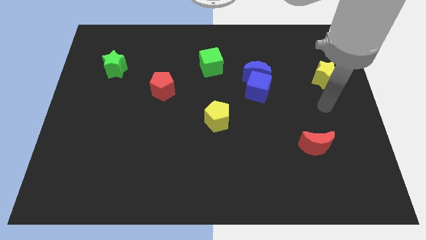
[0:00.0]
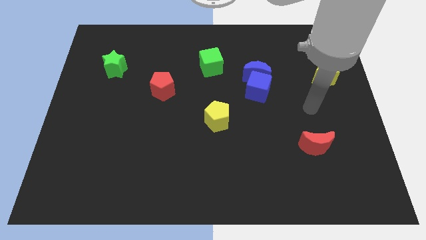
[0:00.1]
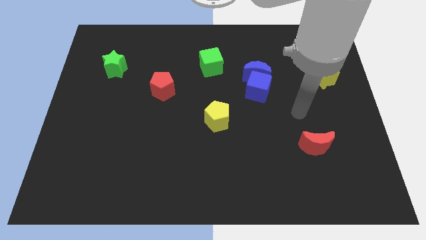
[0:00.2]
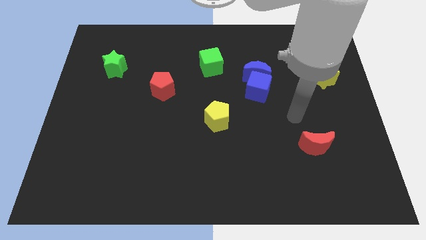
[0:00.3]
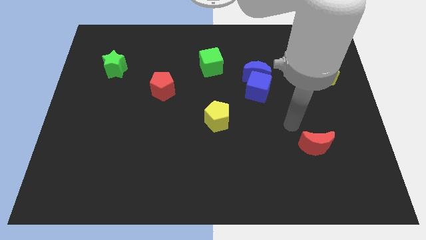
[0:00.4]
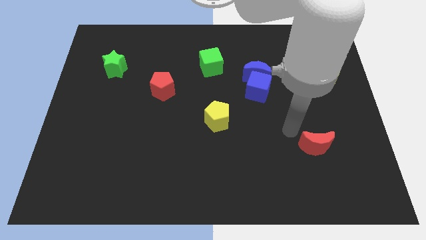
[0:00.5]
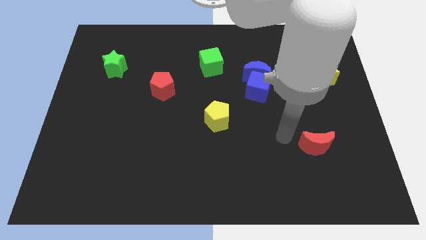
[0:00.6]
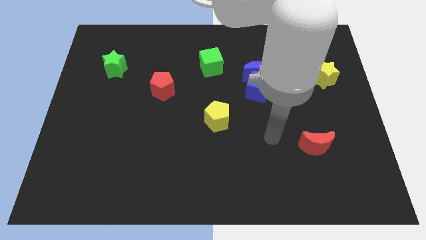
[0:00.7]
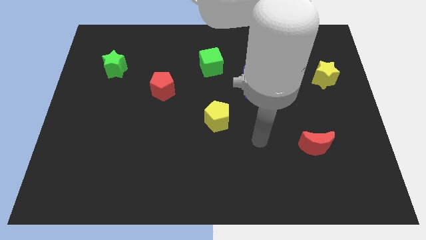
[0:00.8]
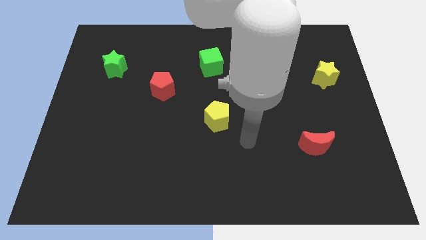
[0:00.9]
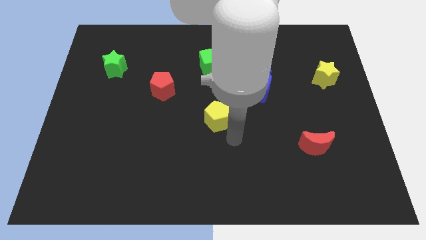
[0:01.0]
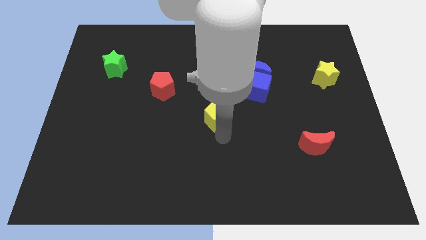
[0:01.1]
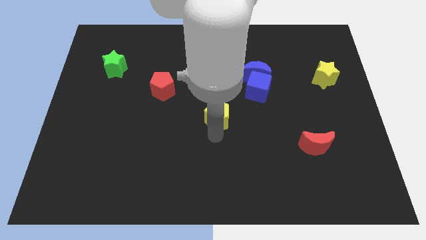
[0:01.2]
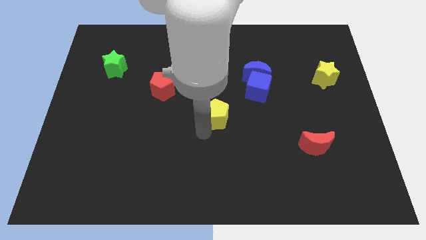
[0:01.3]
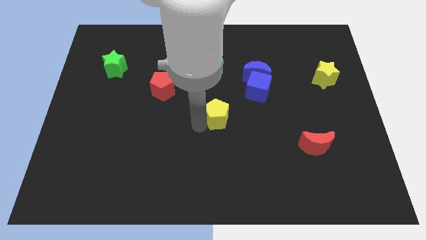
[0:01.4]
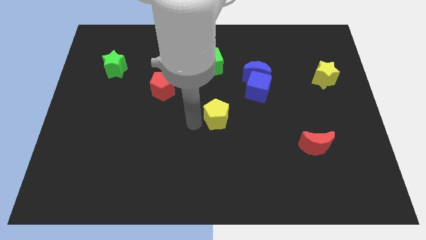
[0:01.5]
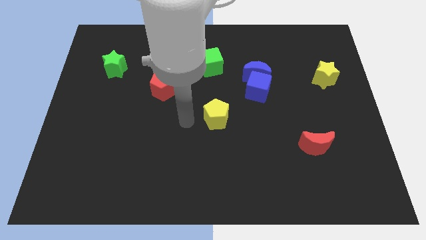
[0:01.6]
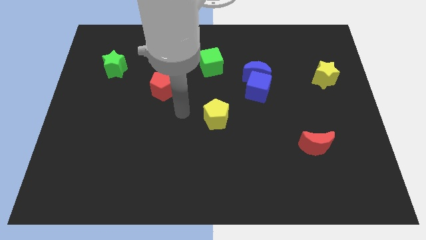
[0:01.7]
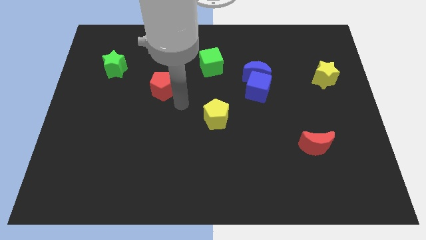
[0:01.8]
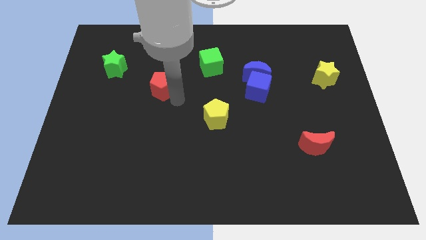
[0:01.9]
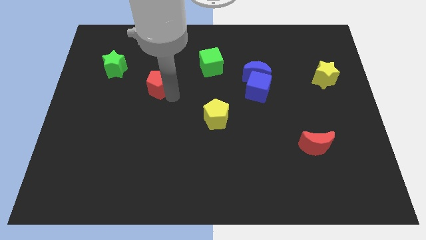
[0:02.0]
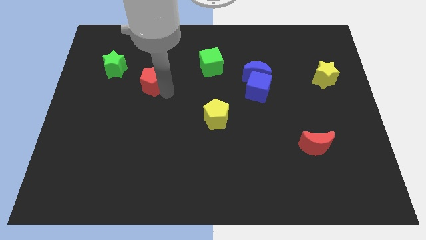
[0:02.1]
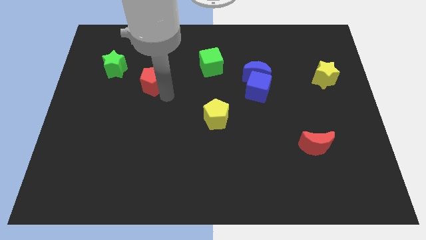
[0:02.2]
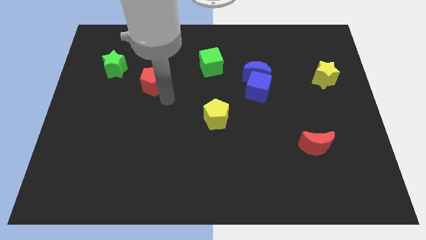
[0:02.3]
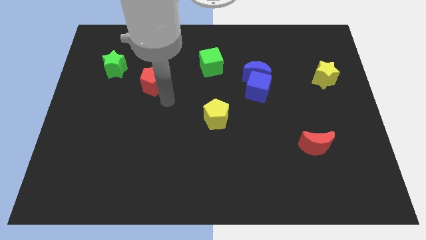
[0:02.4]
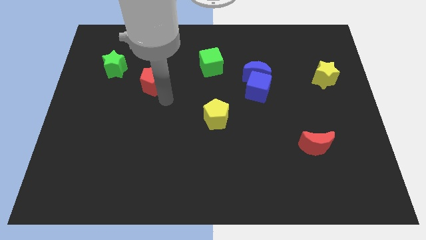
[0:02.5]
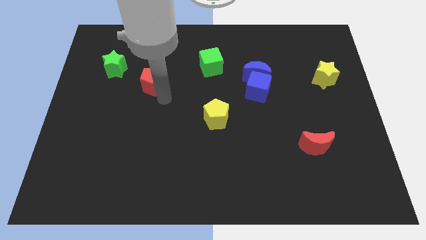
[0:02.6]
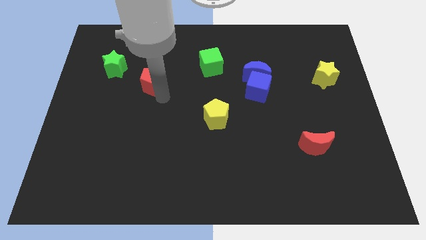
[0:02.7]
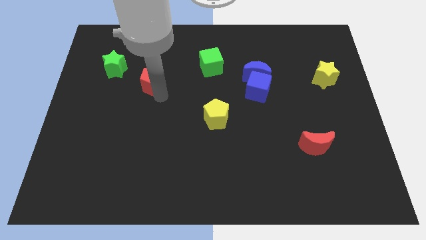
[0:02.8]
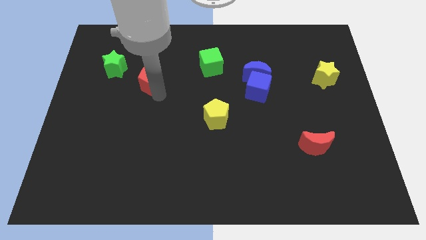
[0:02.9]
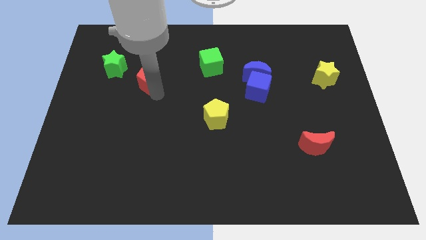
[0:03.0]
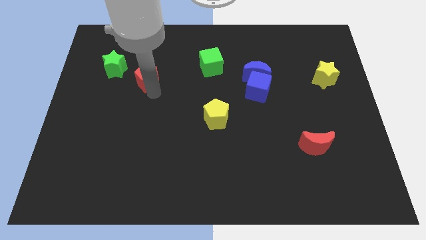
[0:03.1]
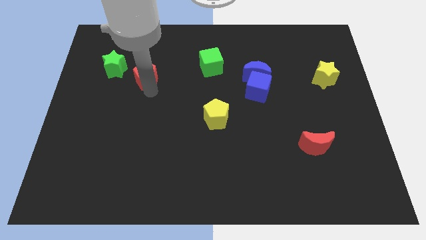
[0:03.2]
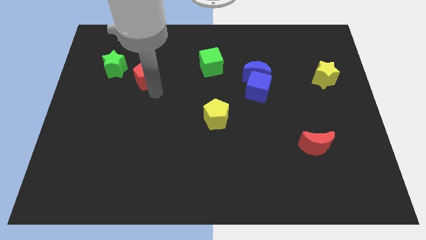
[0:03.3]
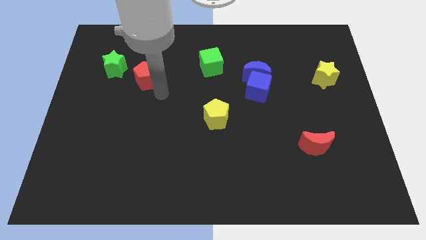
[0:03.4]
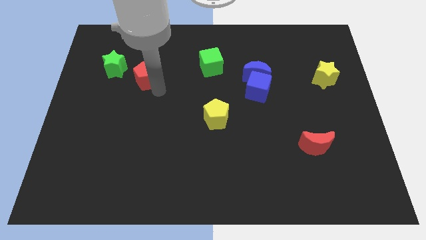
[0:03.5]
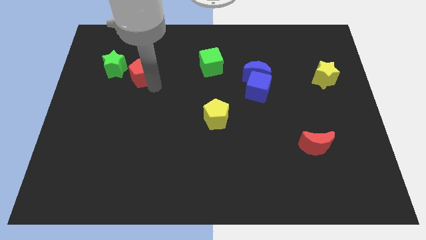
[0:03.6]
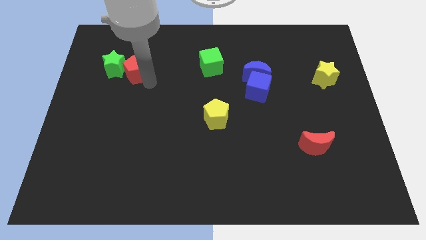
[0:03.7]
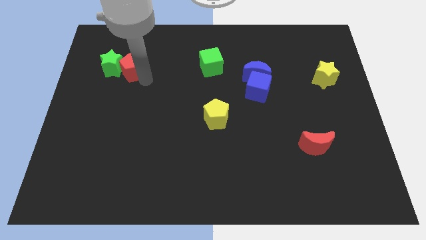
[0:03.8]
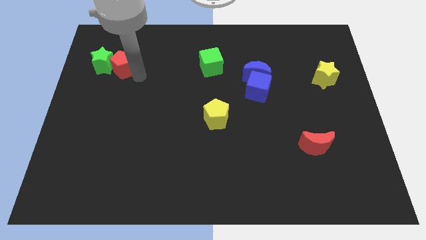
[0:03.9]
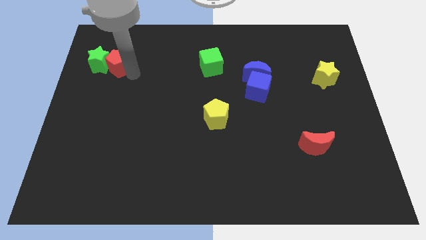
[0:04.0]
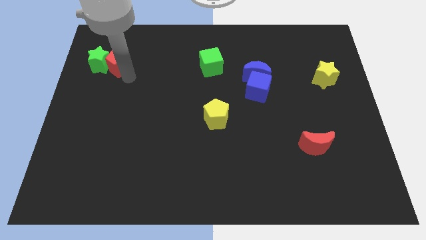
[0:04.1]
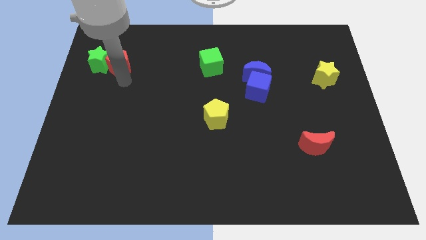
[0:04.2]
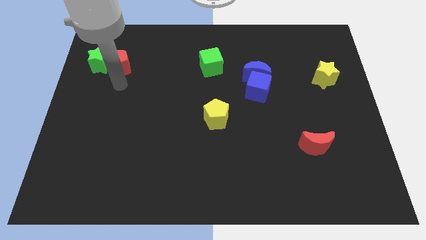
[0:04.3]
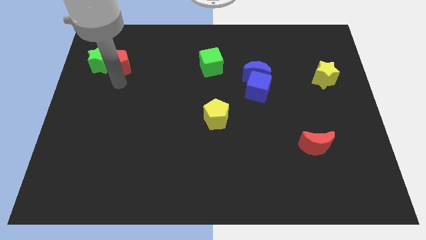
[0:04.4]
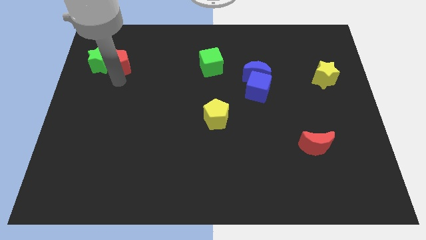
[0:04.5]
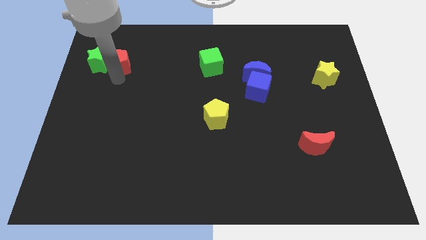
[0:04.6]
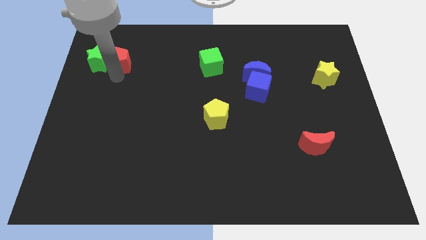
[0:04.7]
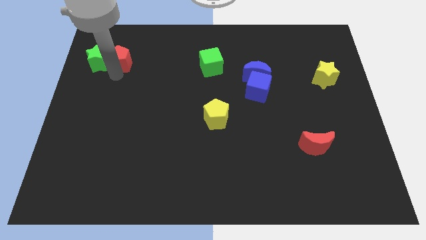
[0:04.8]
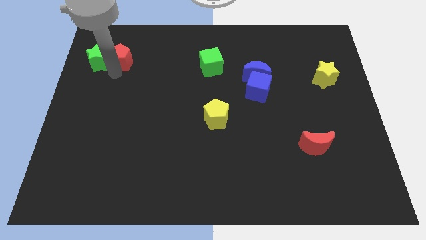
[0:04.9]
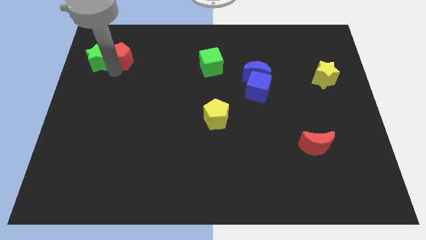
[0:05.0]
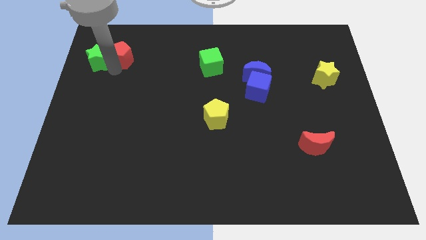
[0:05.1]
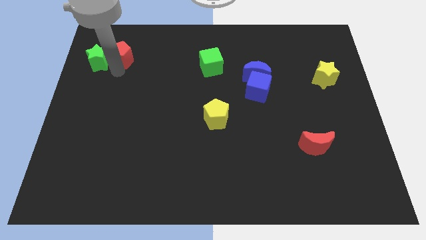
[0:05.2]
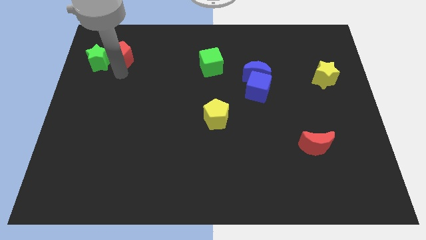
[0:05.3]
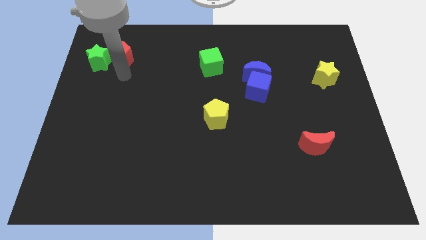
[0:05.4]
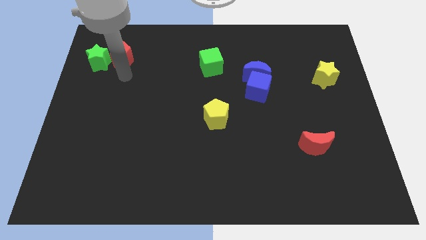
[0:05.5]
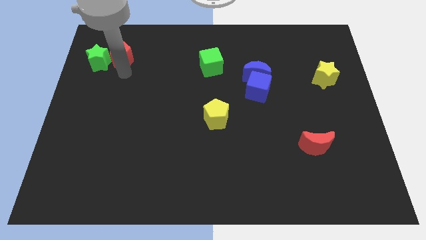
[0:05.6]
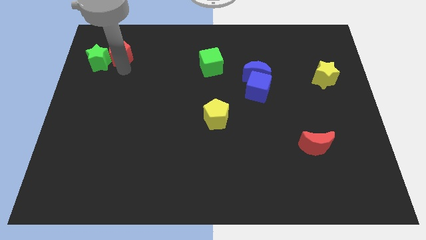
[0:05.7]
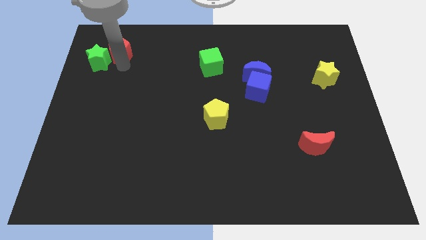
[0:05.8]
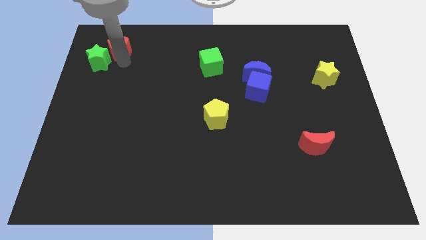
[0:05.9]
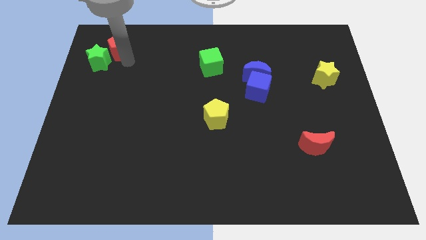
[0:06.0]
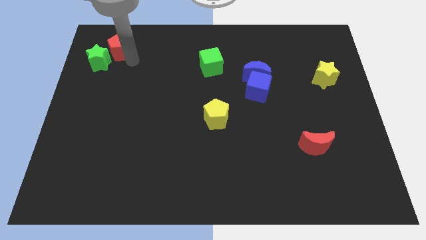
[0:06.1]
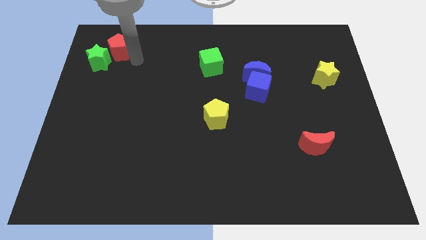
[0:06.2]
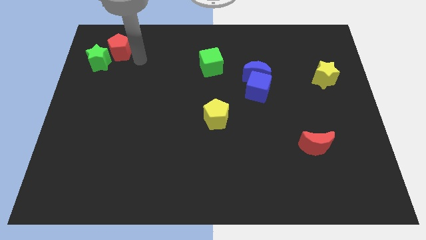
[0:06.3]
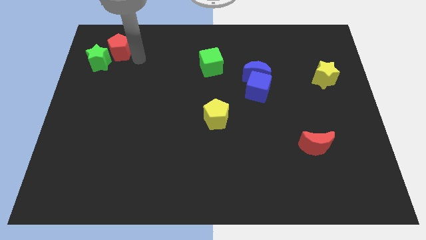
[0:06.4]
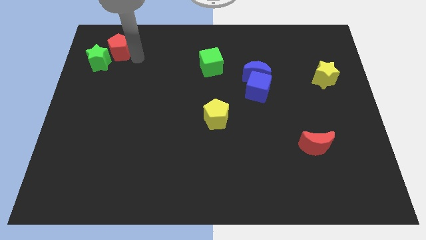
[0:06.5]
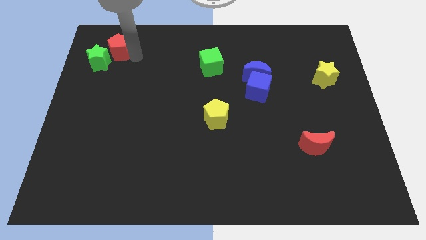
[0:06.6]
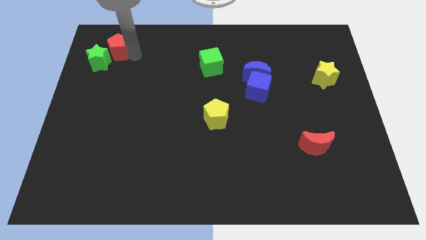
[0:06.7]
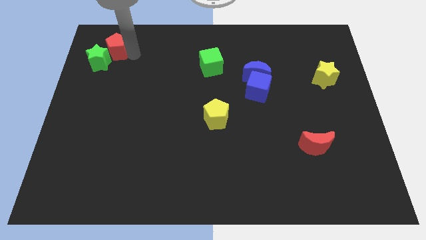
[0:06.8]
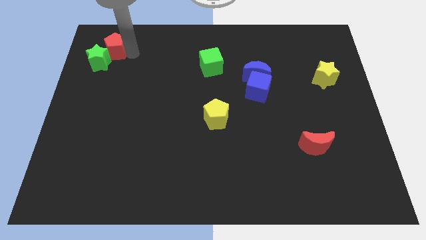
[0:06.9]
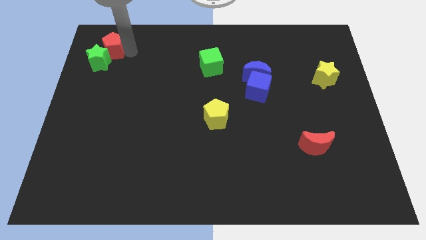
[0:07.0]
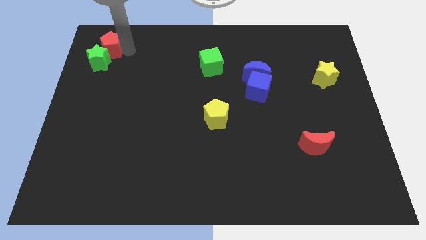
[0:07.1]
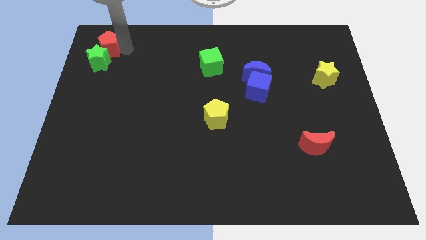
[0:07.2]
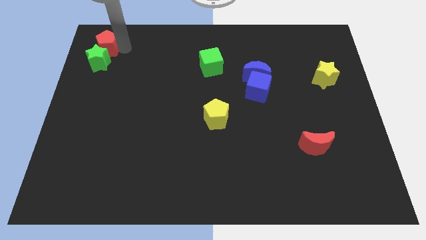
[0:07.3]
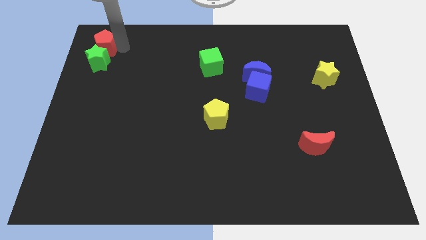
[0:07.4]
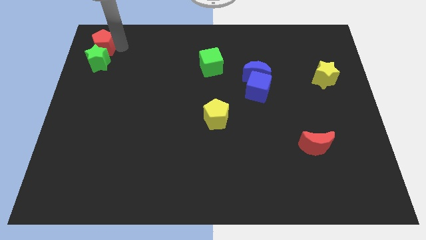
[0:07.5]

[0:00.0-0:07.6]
slide the red pentagon to the top left corner
